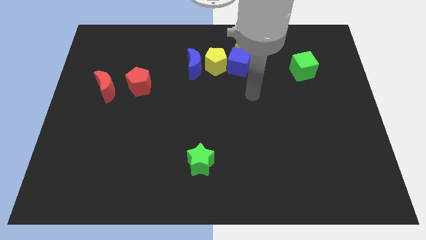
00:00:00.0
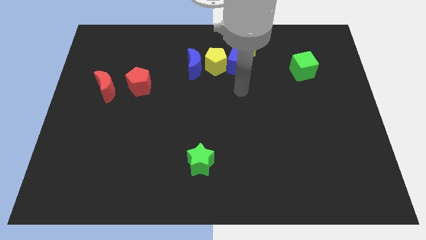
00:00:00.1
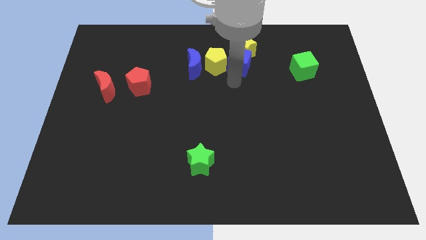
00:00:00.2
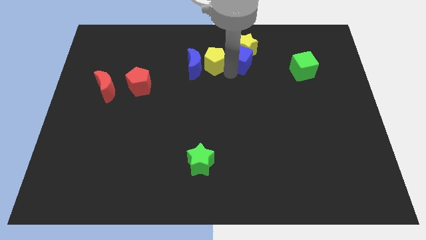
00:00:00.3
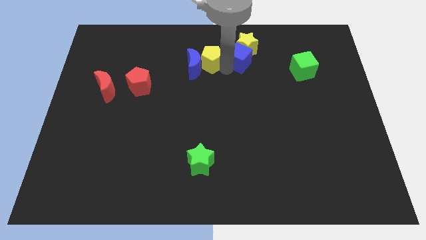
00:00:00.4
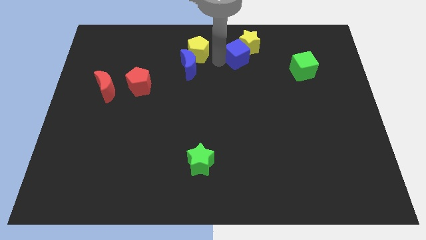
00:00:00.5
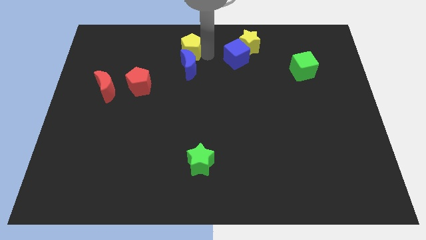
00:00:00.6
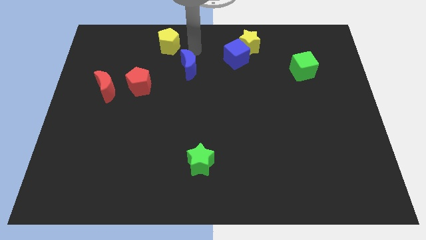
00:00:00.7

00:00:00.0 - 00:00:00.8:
move the blue moon away from the yellow pentagon

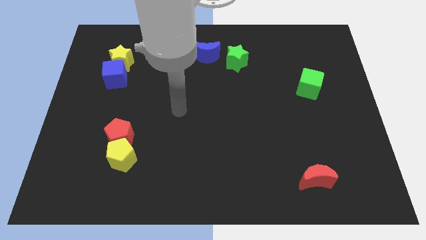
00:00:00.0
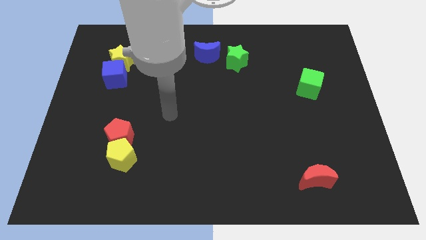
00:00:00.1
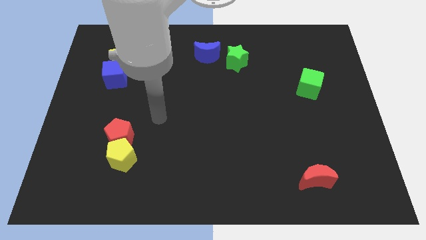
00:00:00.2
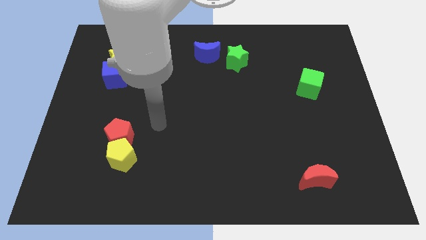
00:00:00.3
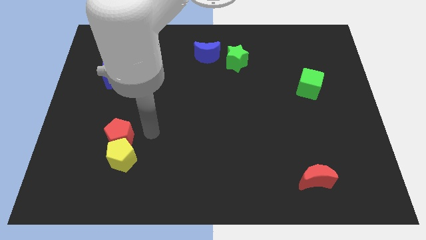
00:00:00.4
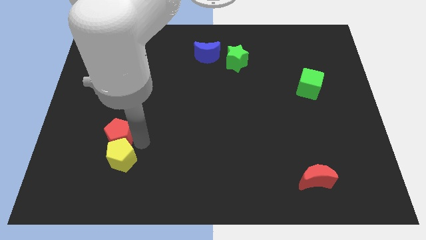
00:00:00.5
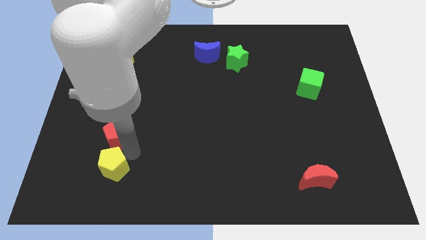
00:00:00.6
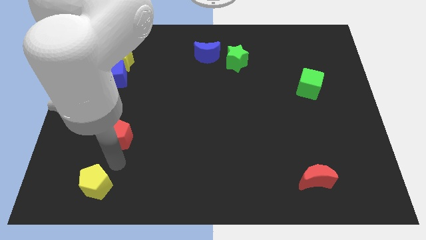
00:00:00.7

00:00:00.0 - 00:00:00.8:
pull the red pentagon apart from the yellow pentagon

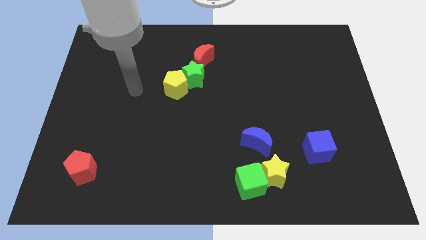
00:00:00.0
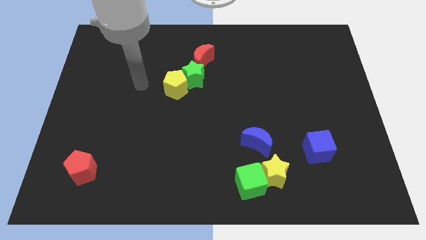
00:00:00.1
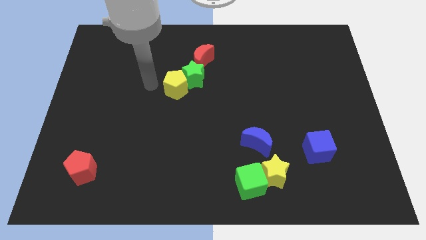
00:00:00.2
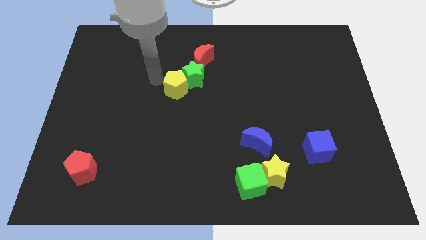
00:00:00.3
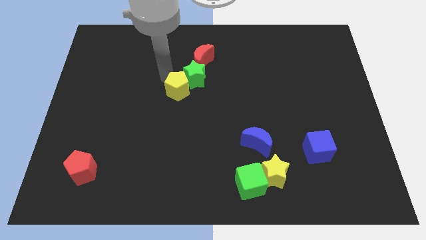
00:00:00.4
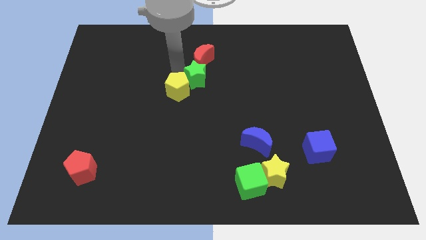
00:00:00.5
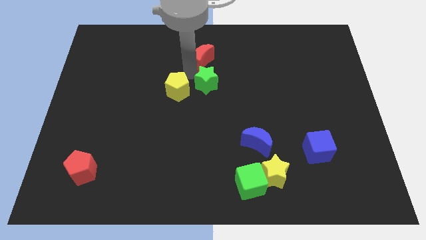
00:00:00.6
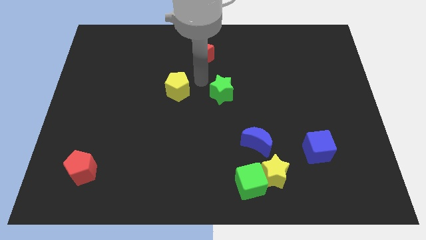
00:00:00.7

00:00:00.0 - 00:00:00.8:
separate the yellow pentagon from the green star

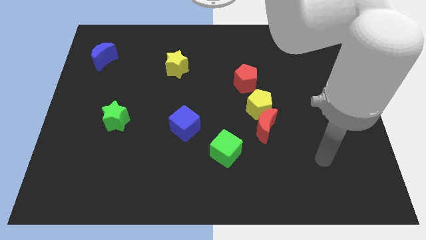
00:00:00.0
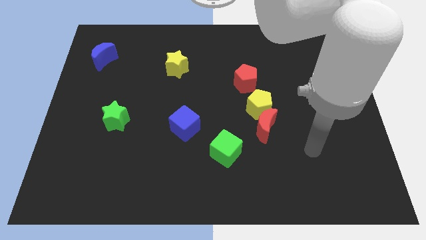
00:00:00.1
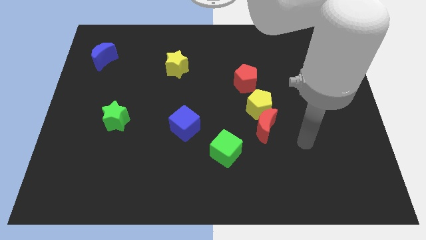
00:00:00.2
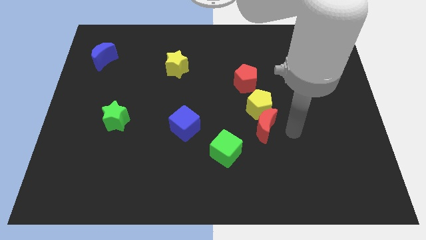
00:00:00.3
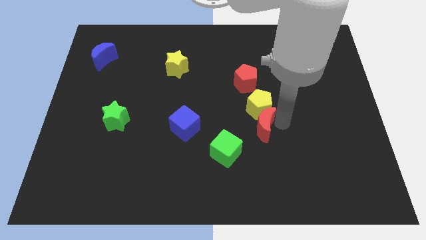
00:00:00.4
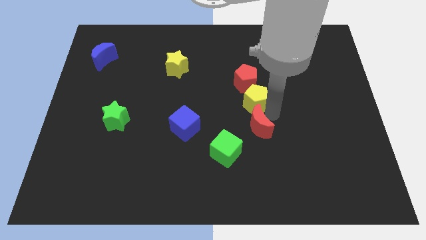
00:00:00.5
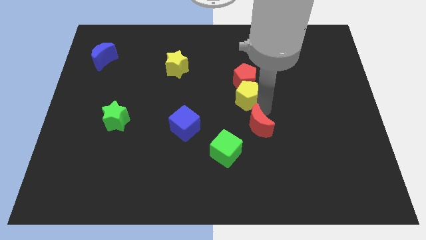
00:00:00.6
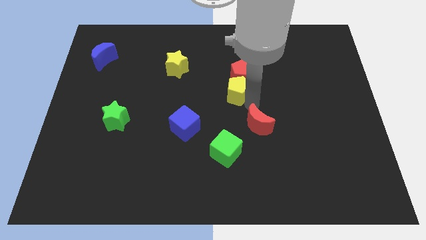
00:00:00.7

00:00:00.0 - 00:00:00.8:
separate the red moon from the yellow pentagon

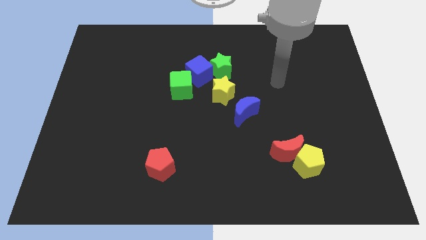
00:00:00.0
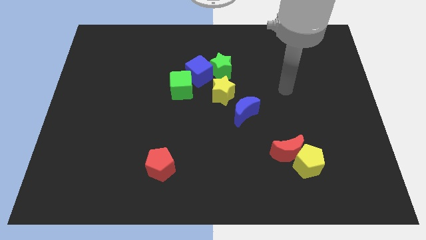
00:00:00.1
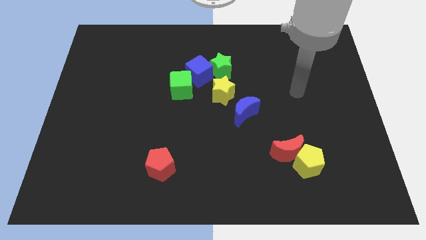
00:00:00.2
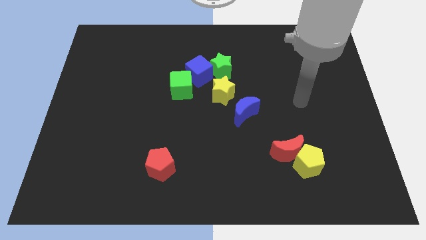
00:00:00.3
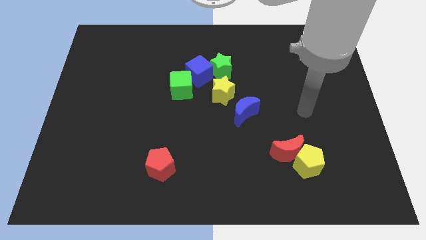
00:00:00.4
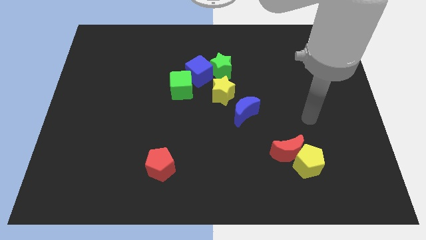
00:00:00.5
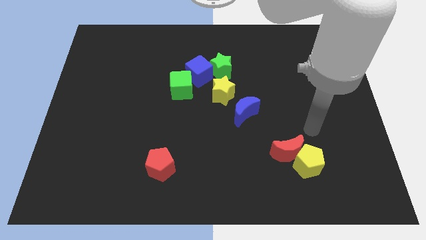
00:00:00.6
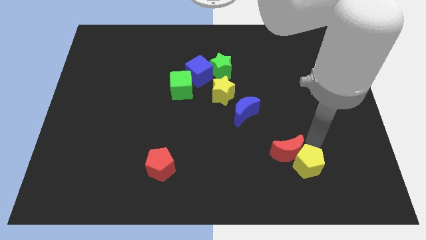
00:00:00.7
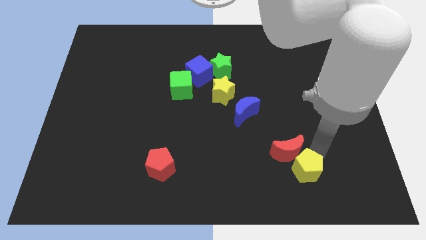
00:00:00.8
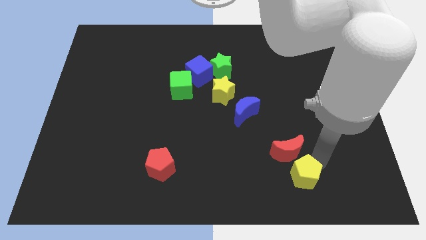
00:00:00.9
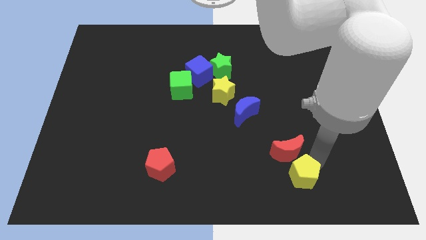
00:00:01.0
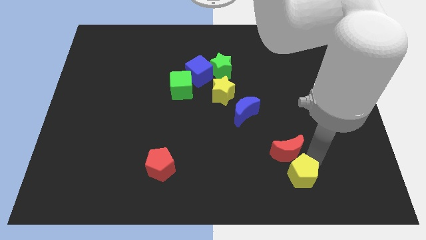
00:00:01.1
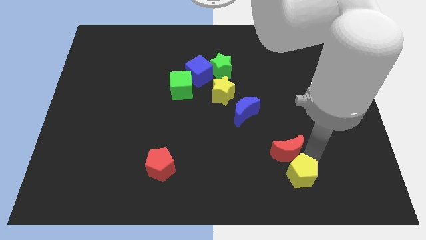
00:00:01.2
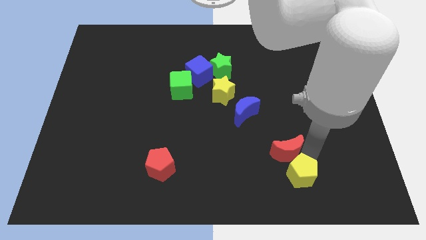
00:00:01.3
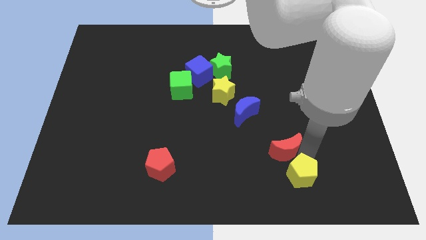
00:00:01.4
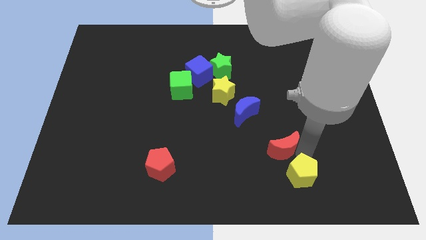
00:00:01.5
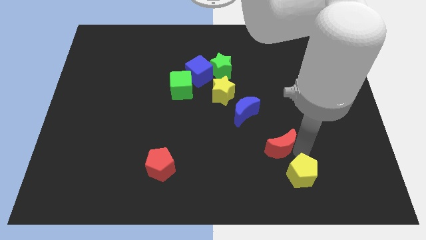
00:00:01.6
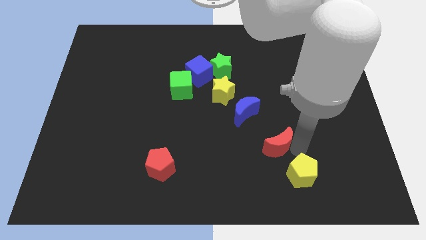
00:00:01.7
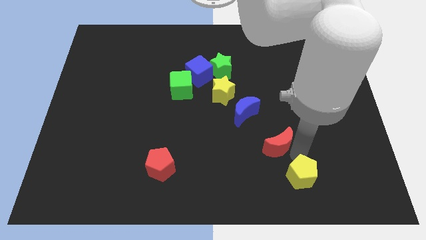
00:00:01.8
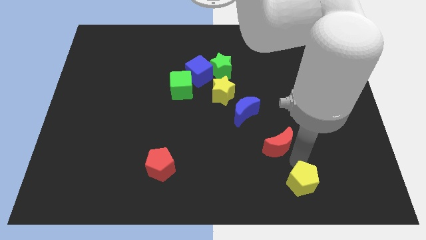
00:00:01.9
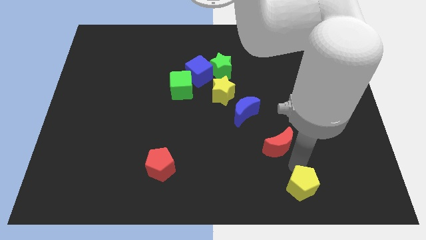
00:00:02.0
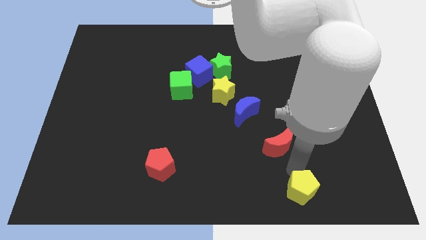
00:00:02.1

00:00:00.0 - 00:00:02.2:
move the red moon away from the yellow pentagon

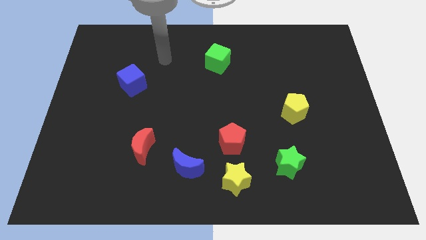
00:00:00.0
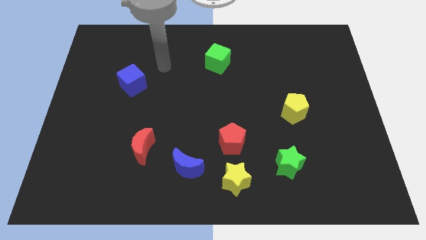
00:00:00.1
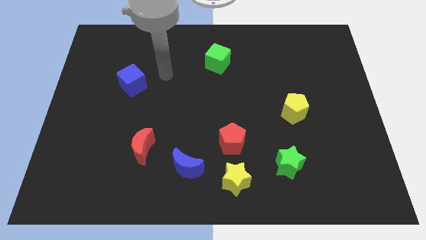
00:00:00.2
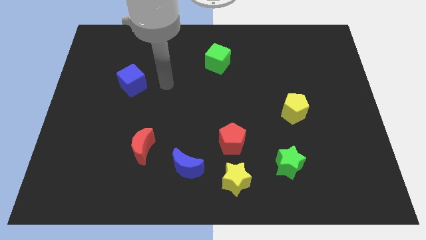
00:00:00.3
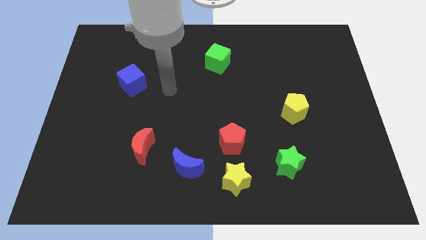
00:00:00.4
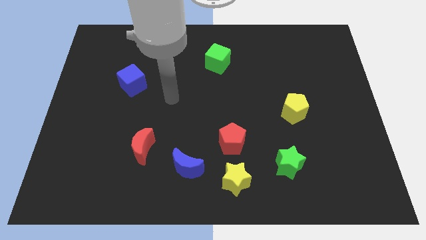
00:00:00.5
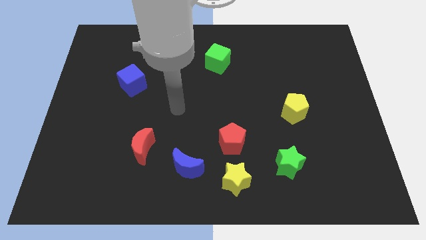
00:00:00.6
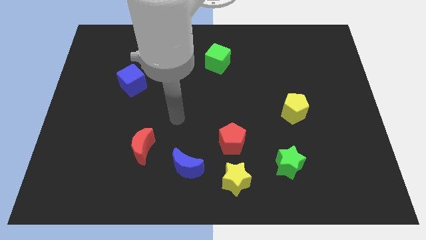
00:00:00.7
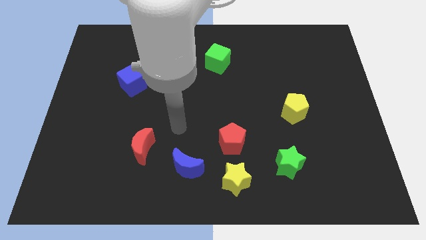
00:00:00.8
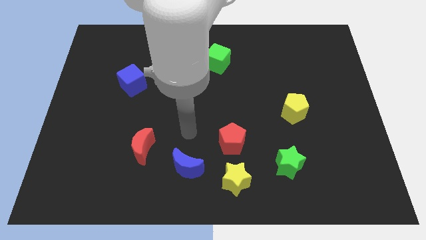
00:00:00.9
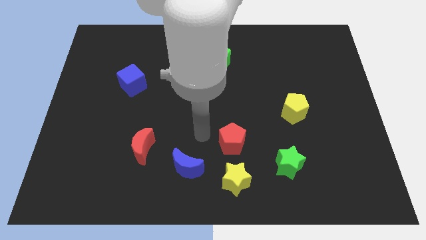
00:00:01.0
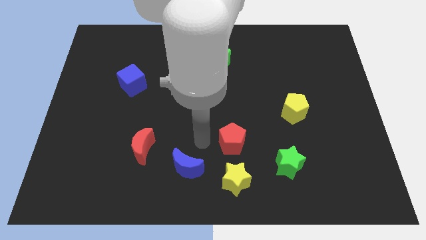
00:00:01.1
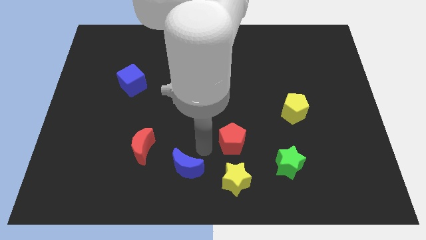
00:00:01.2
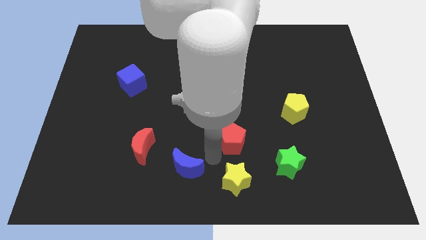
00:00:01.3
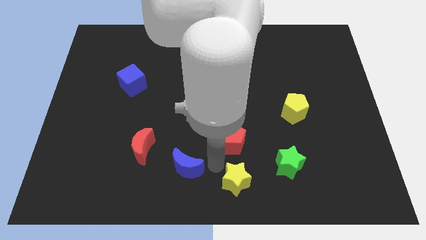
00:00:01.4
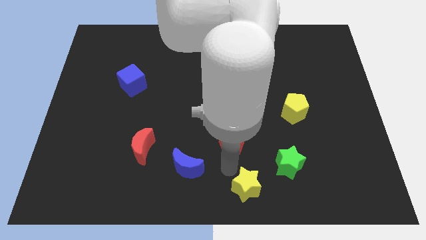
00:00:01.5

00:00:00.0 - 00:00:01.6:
pull the red pentagon apart from the yellow star

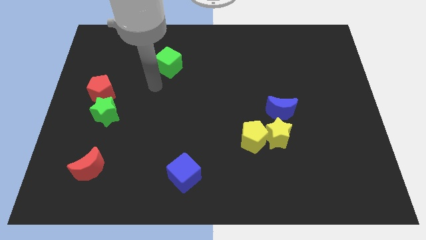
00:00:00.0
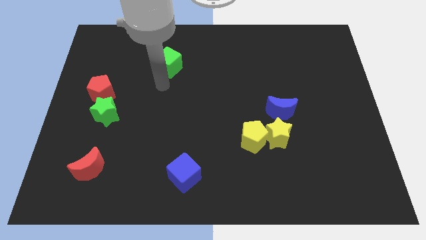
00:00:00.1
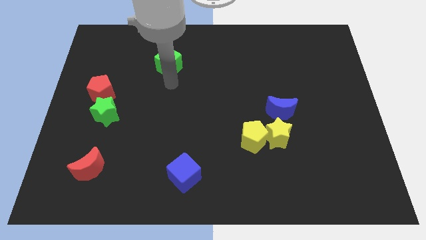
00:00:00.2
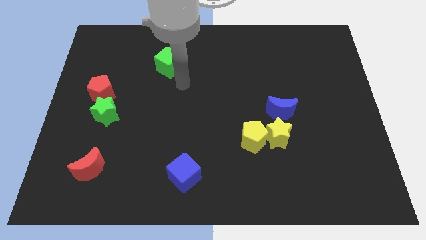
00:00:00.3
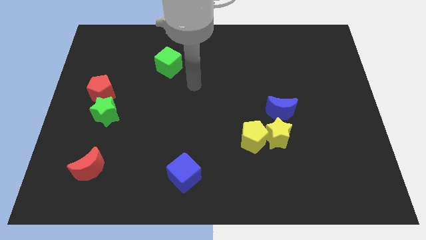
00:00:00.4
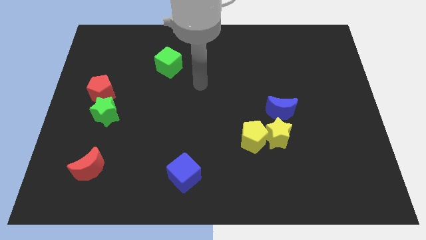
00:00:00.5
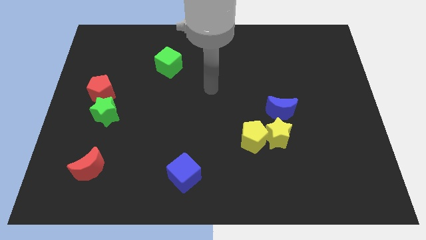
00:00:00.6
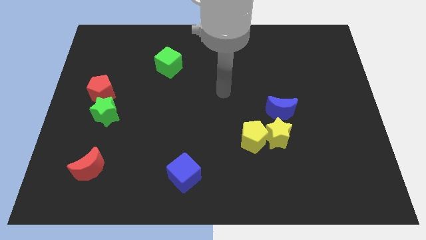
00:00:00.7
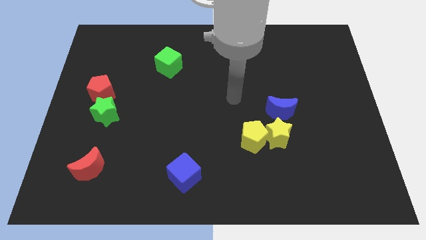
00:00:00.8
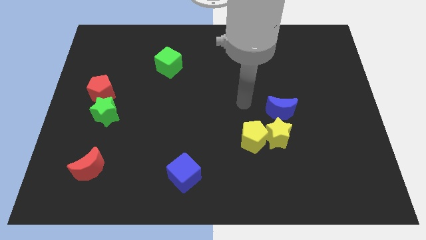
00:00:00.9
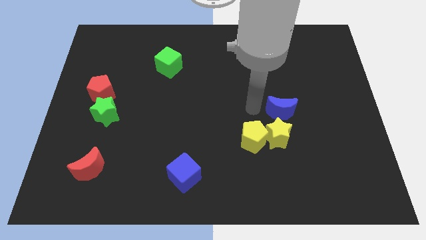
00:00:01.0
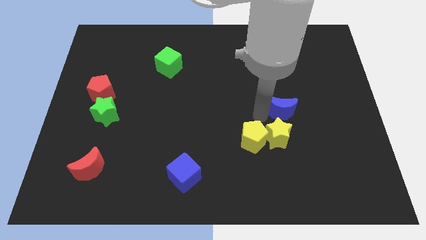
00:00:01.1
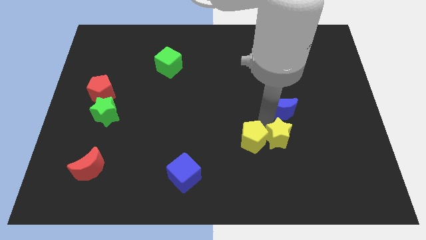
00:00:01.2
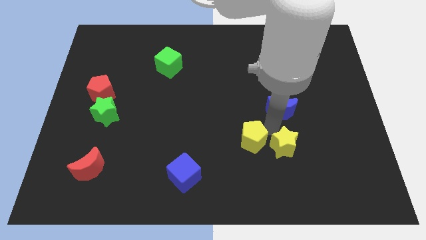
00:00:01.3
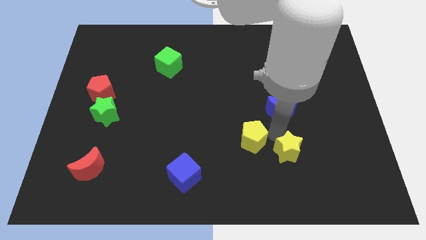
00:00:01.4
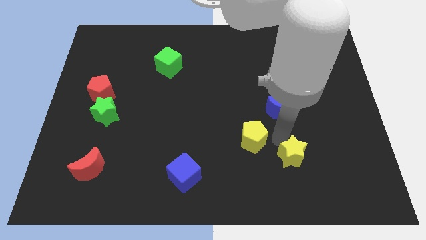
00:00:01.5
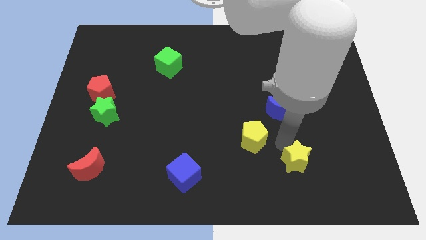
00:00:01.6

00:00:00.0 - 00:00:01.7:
move the yellow star away from the yellow pentagon and blue moon

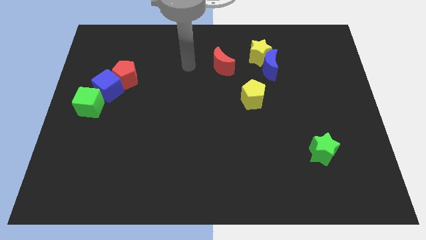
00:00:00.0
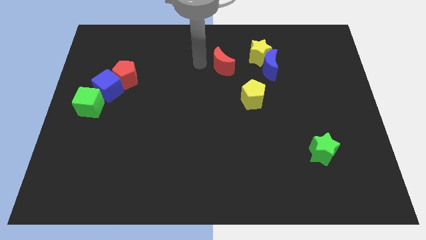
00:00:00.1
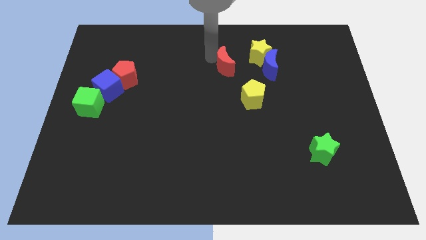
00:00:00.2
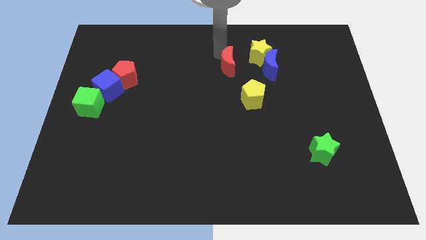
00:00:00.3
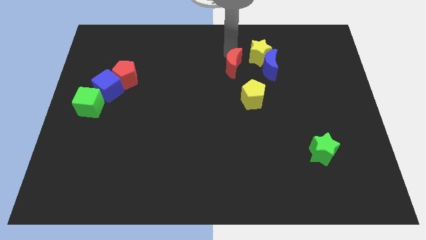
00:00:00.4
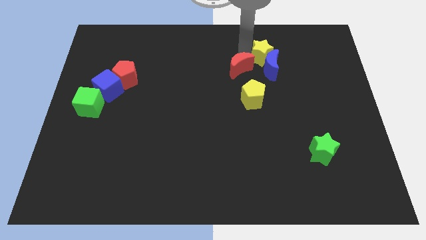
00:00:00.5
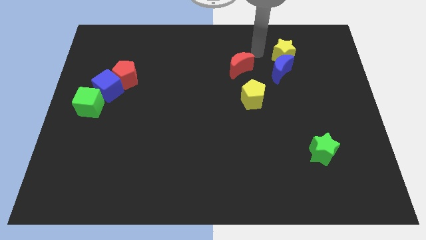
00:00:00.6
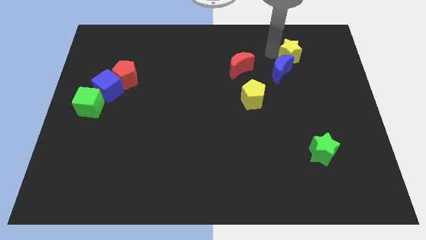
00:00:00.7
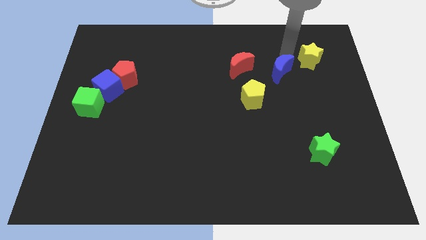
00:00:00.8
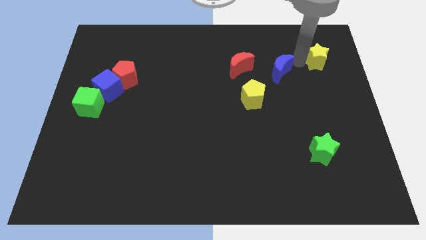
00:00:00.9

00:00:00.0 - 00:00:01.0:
separate the blue moon from the yellow star
